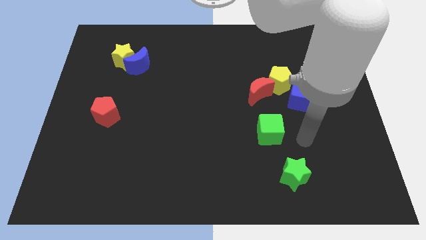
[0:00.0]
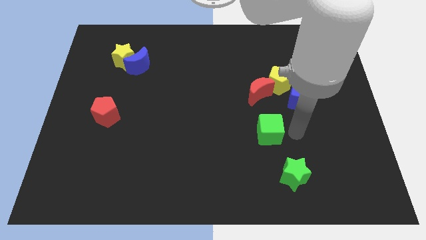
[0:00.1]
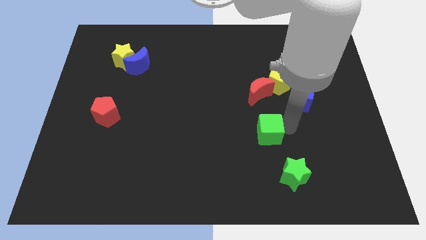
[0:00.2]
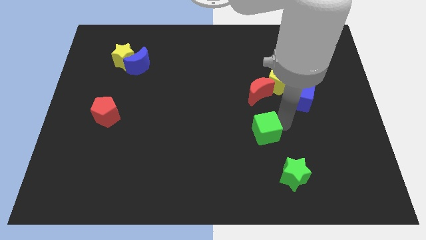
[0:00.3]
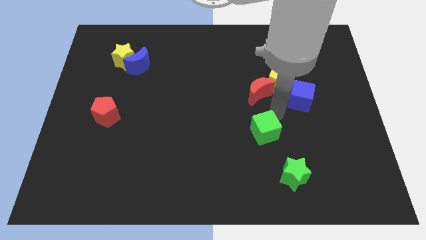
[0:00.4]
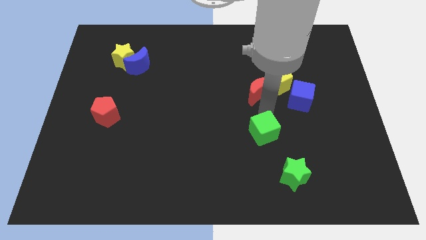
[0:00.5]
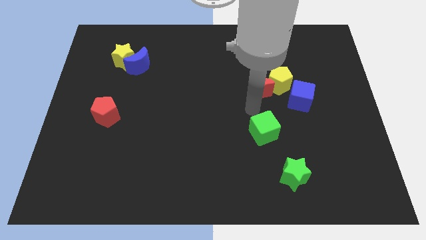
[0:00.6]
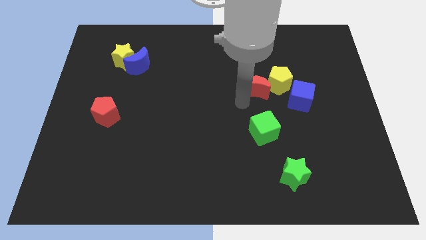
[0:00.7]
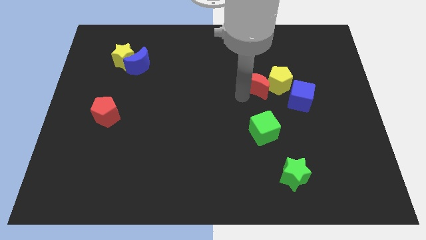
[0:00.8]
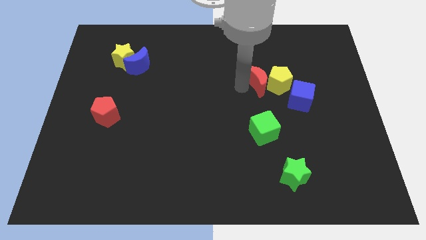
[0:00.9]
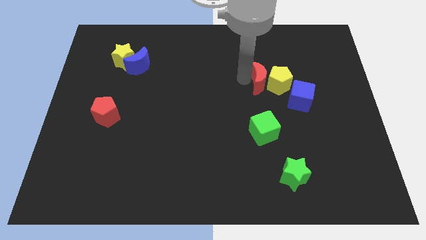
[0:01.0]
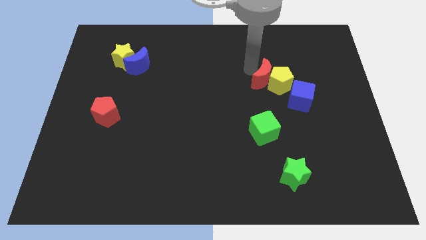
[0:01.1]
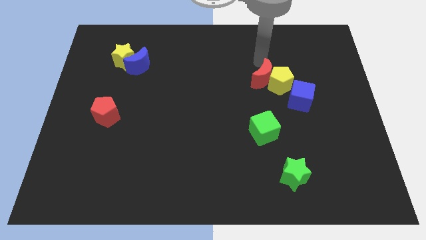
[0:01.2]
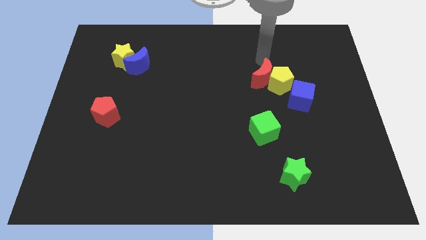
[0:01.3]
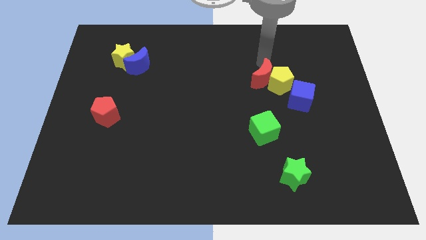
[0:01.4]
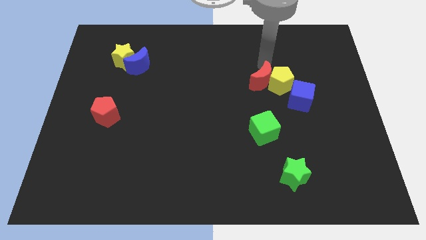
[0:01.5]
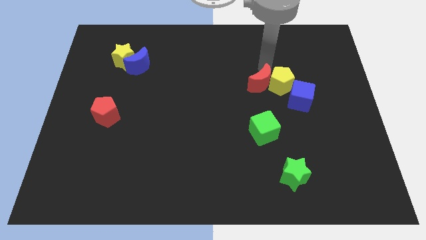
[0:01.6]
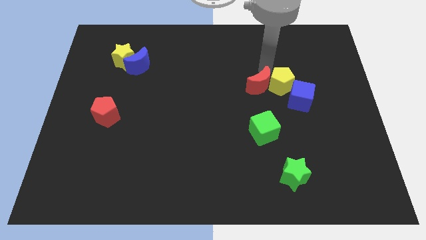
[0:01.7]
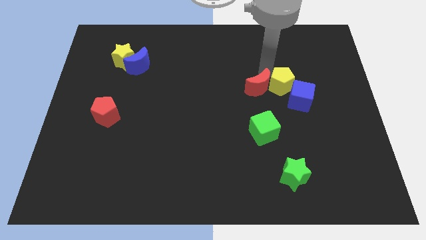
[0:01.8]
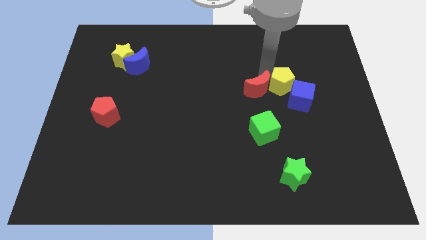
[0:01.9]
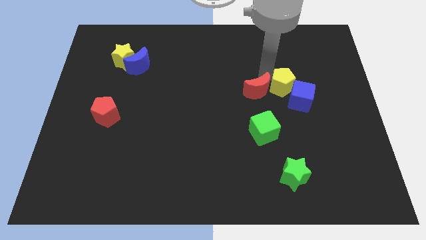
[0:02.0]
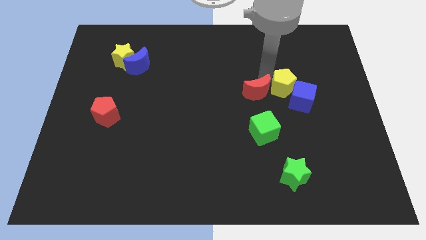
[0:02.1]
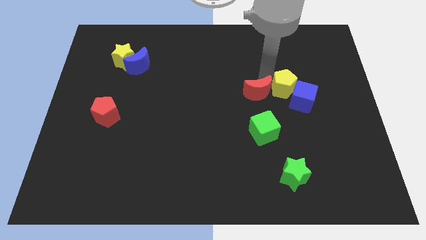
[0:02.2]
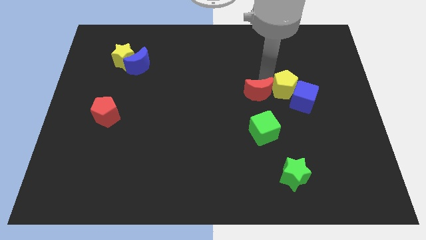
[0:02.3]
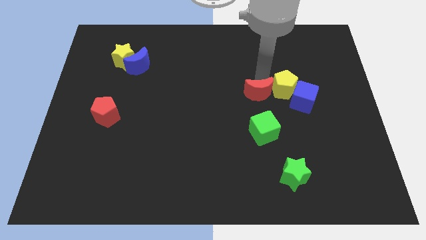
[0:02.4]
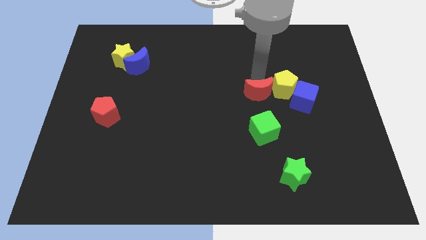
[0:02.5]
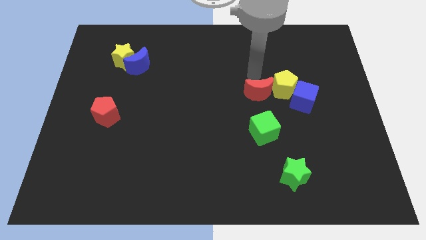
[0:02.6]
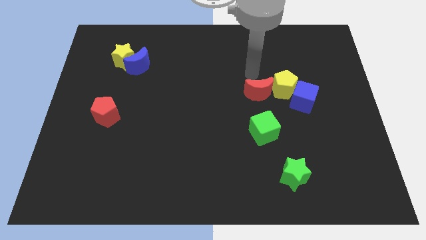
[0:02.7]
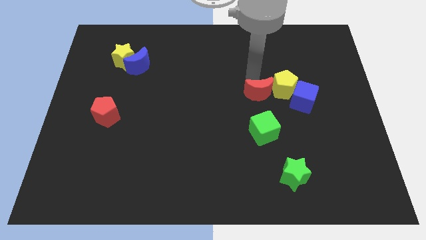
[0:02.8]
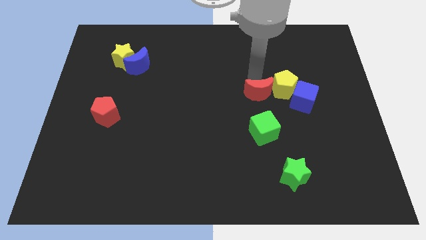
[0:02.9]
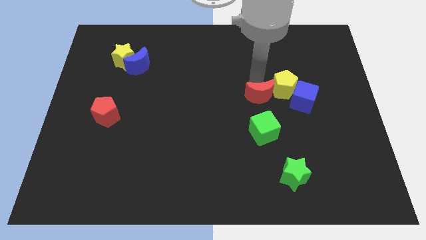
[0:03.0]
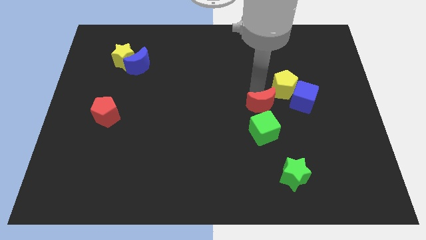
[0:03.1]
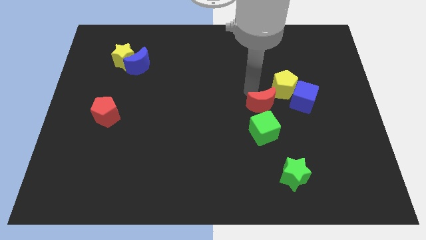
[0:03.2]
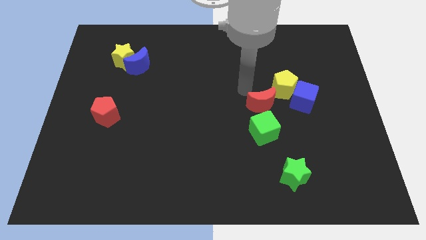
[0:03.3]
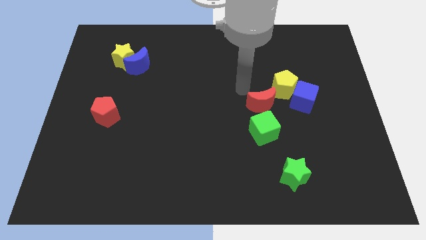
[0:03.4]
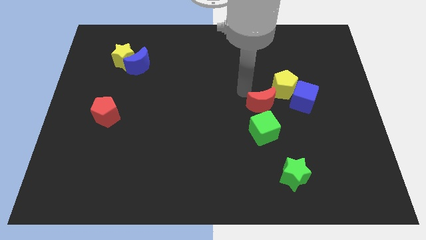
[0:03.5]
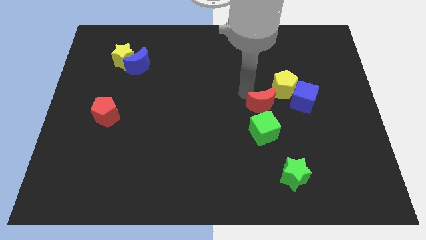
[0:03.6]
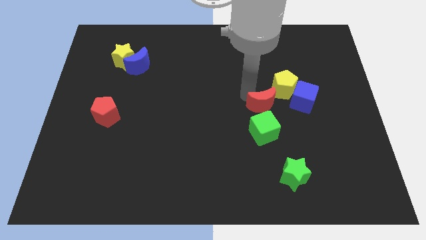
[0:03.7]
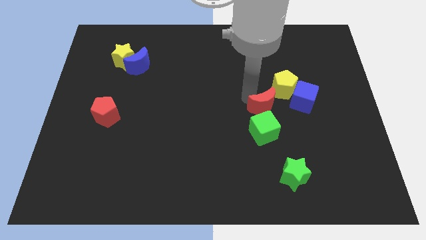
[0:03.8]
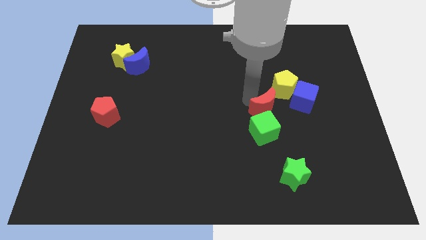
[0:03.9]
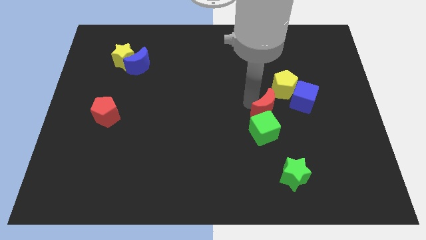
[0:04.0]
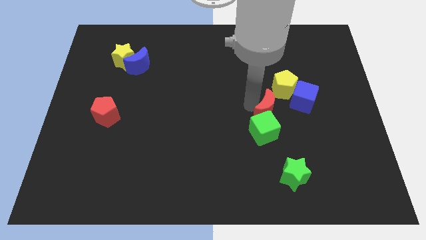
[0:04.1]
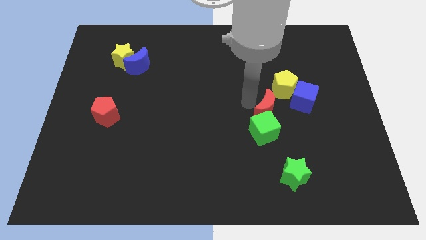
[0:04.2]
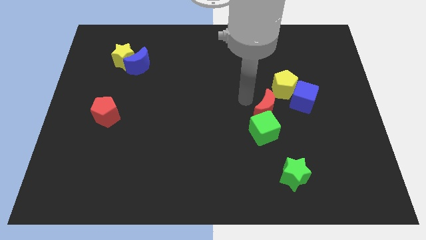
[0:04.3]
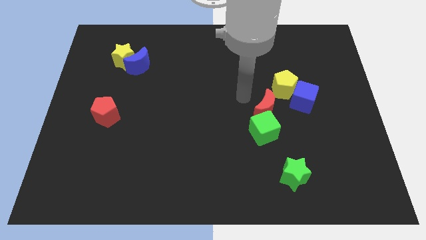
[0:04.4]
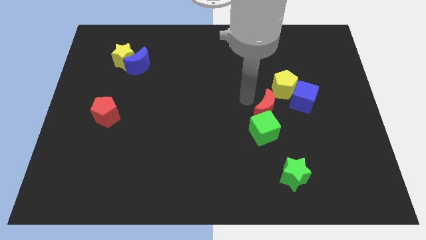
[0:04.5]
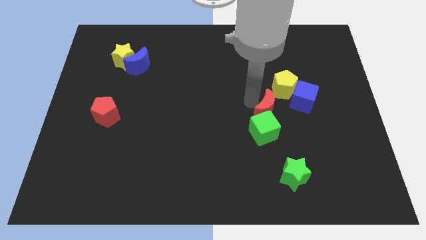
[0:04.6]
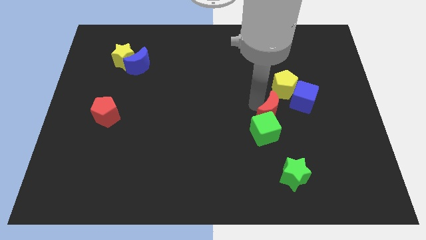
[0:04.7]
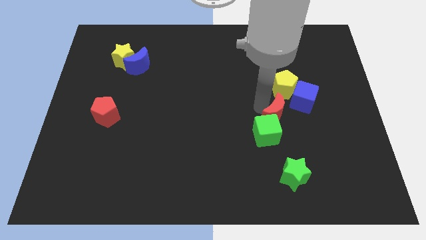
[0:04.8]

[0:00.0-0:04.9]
slide the red moon down and to the right diagonally somewhat

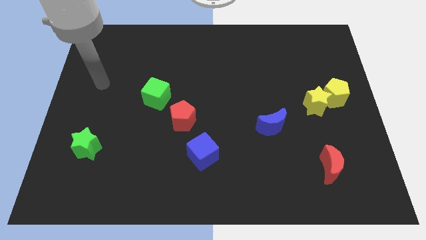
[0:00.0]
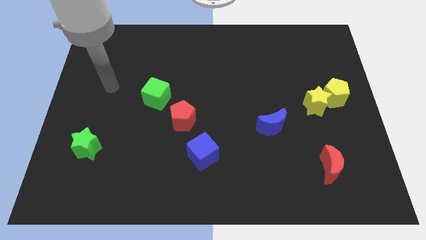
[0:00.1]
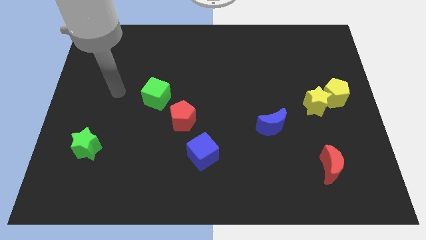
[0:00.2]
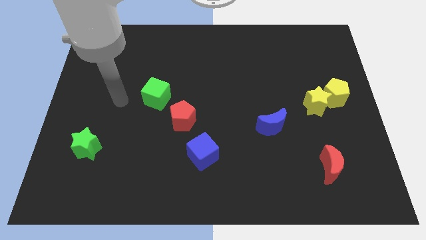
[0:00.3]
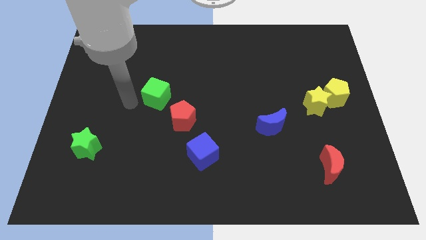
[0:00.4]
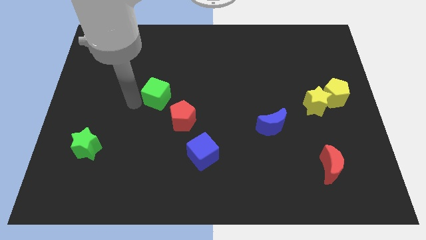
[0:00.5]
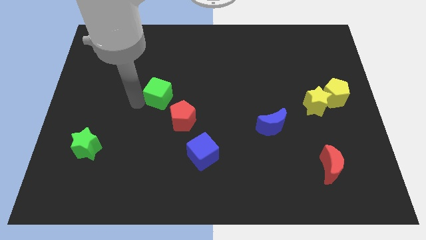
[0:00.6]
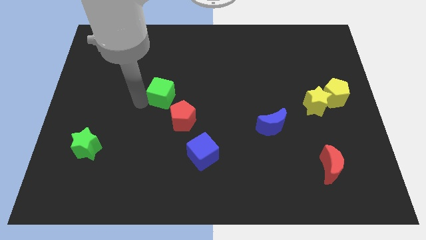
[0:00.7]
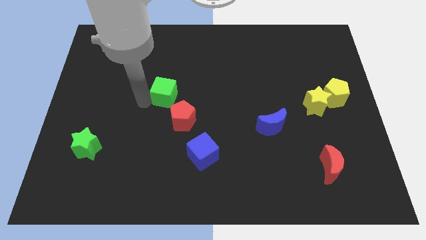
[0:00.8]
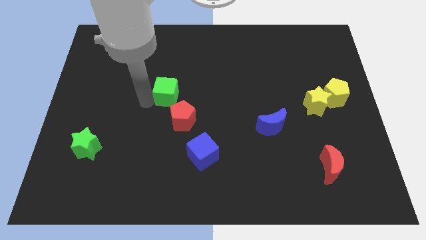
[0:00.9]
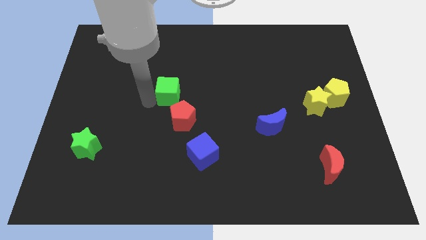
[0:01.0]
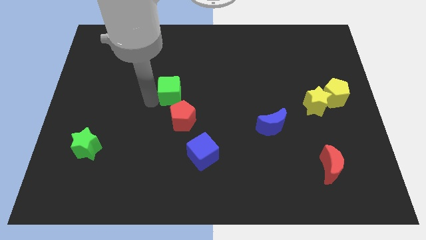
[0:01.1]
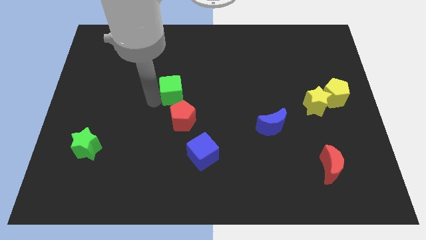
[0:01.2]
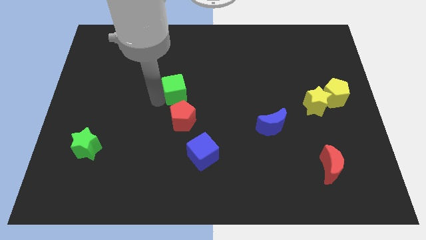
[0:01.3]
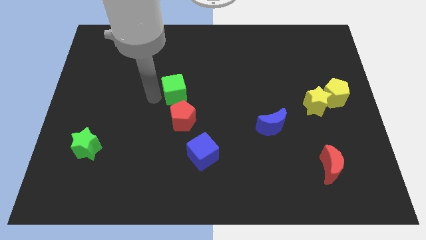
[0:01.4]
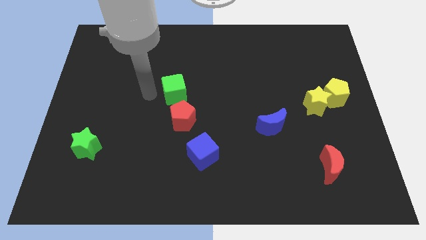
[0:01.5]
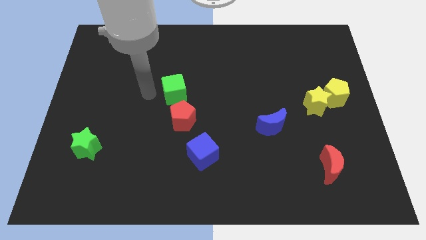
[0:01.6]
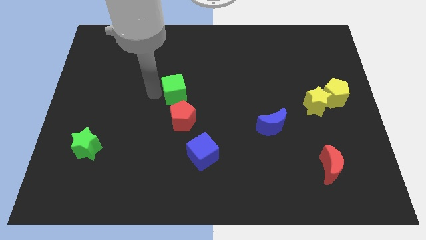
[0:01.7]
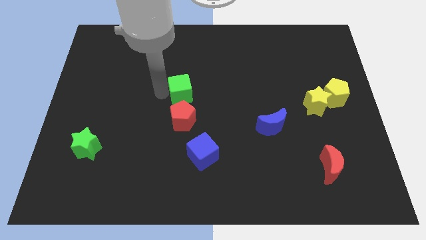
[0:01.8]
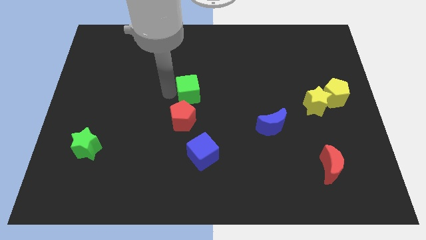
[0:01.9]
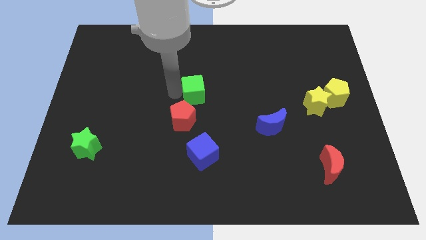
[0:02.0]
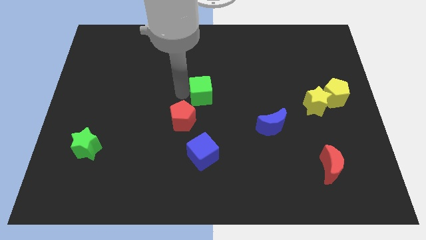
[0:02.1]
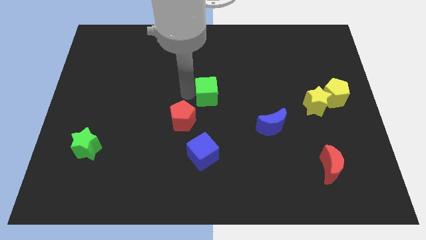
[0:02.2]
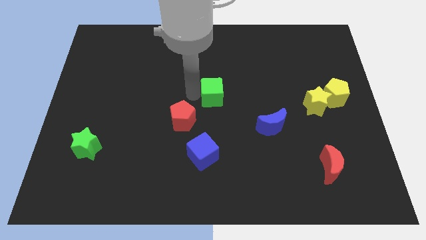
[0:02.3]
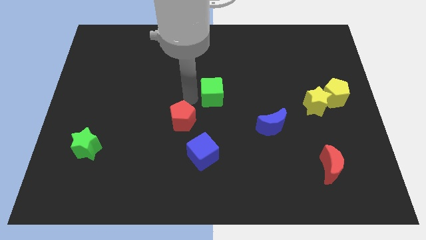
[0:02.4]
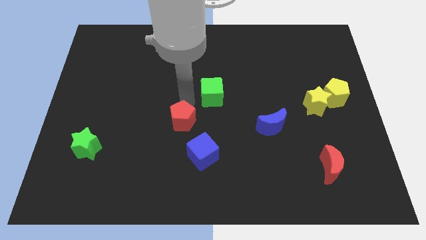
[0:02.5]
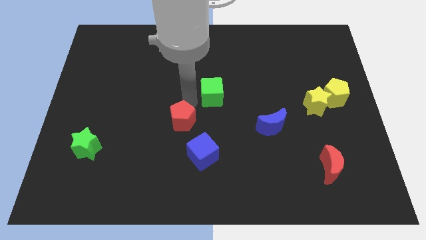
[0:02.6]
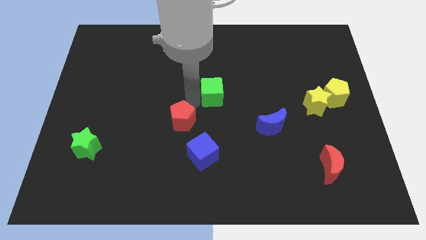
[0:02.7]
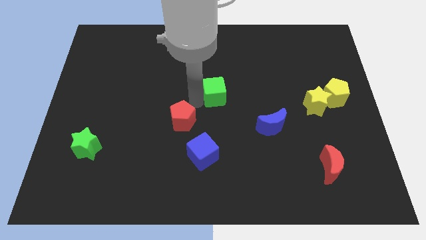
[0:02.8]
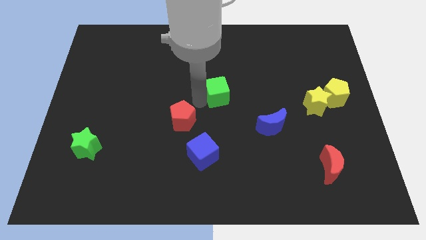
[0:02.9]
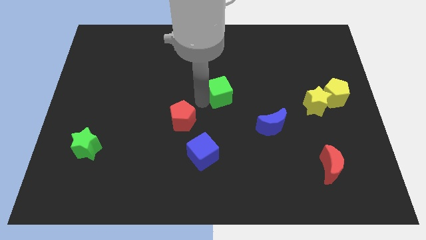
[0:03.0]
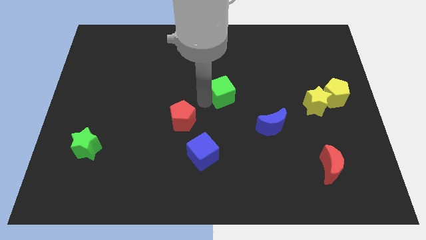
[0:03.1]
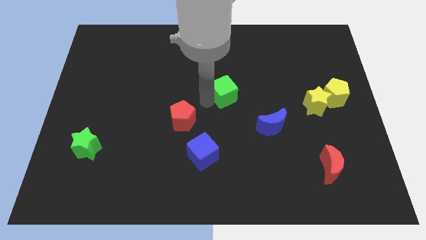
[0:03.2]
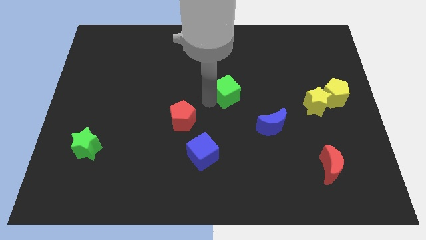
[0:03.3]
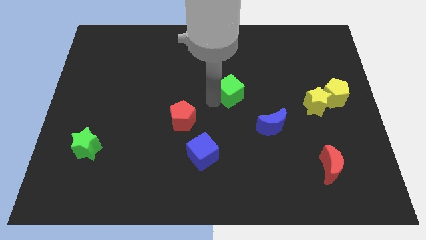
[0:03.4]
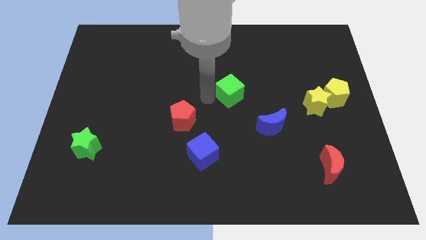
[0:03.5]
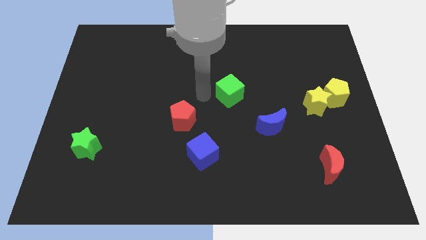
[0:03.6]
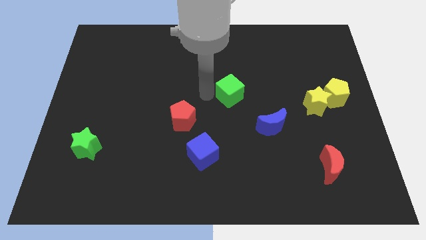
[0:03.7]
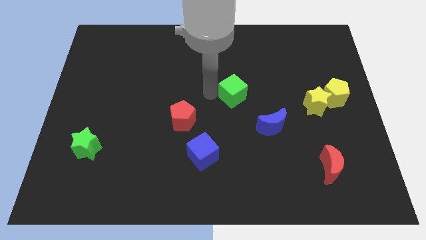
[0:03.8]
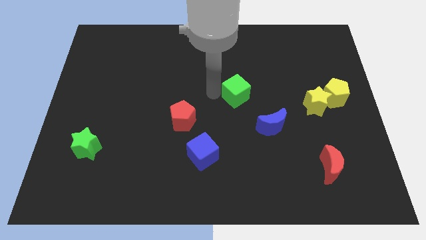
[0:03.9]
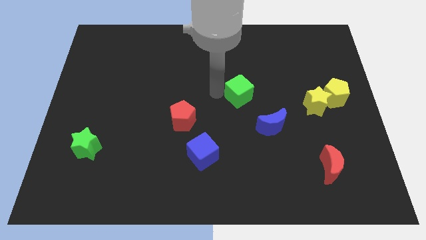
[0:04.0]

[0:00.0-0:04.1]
move the green cube right
